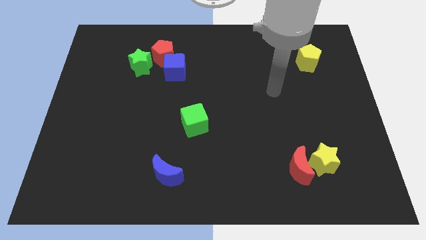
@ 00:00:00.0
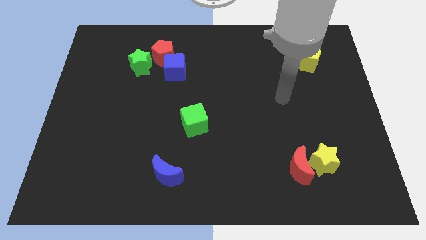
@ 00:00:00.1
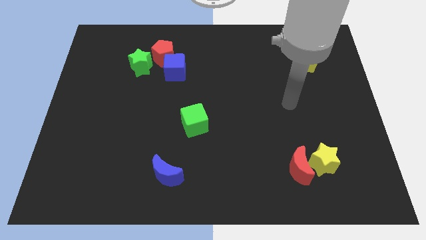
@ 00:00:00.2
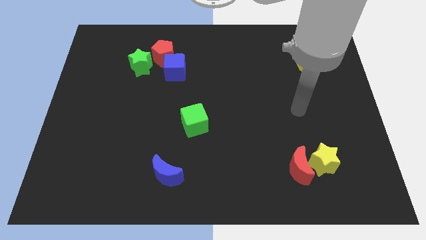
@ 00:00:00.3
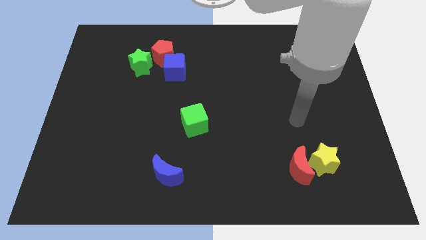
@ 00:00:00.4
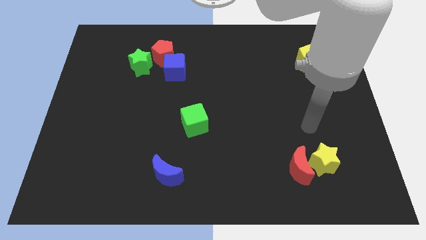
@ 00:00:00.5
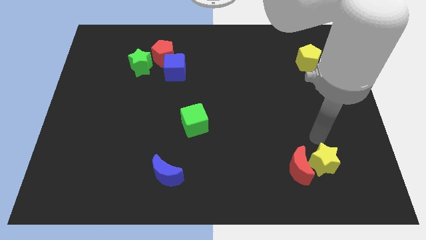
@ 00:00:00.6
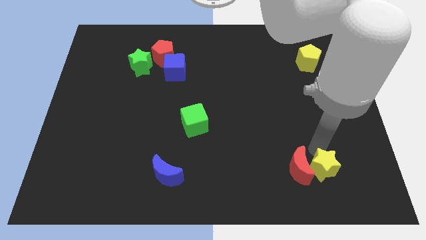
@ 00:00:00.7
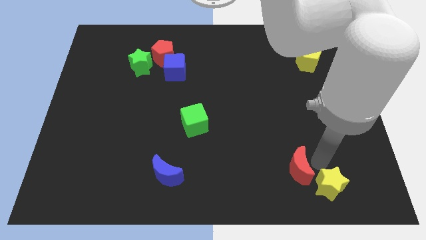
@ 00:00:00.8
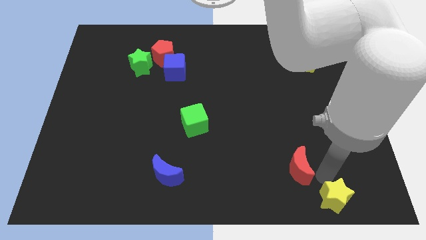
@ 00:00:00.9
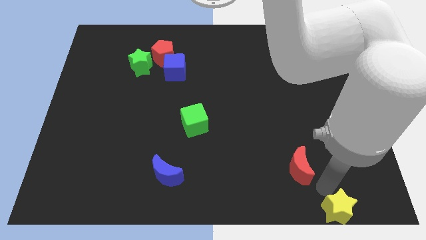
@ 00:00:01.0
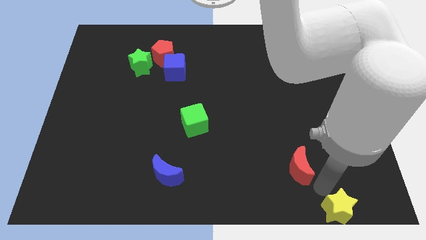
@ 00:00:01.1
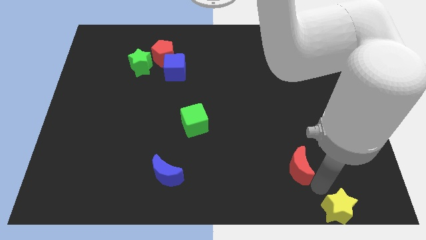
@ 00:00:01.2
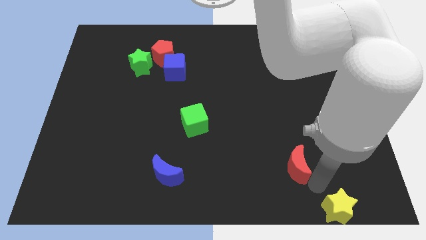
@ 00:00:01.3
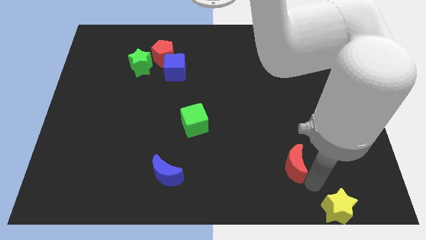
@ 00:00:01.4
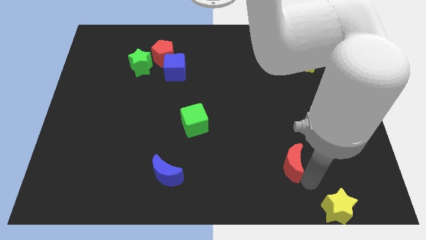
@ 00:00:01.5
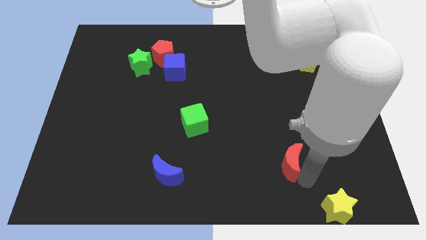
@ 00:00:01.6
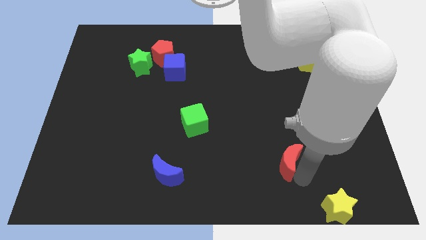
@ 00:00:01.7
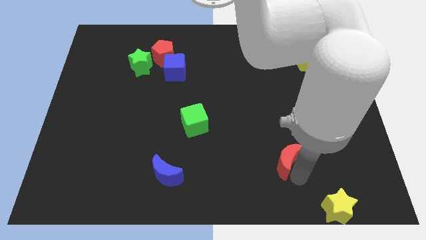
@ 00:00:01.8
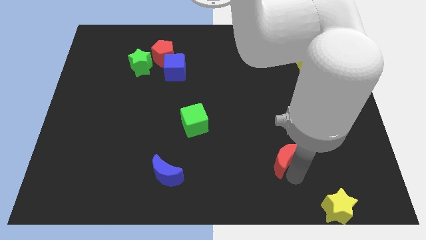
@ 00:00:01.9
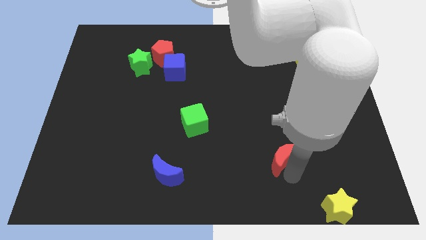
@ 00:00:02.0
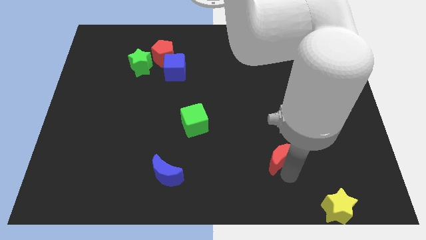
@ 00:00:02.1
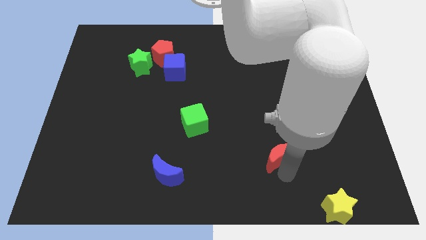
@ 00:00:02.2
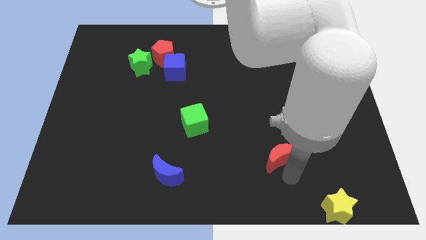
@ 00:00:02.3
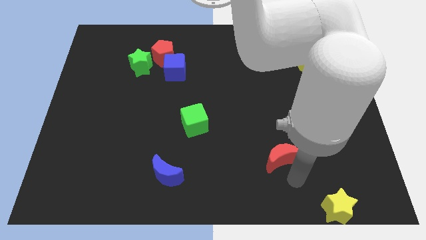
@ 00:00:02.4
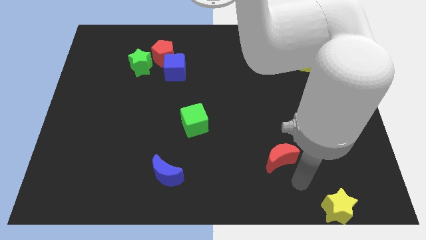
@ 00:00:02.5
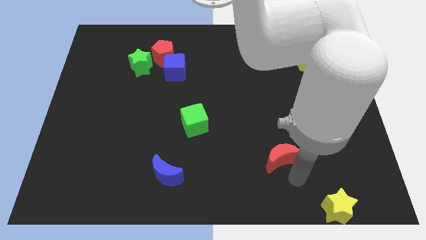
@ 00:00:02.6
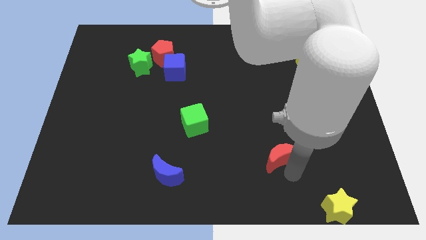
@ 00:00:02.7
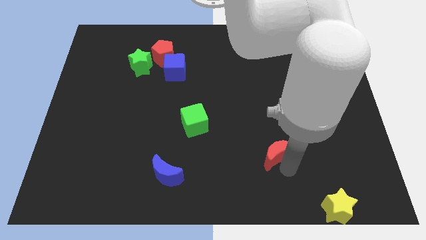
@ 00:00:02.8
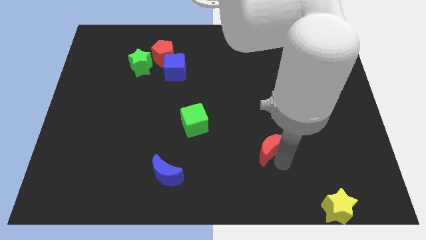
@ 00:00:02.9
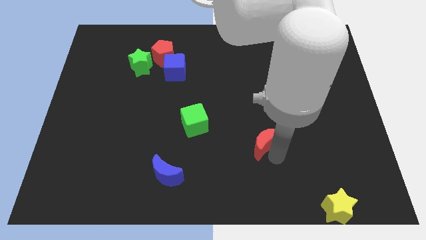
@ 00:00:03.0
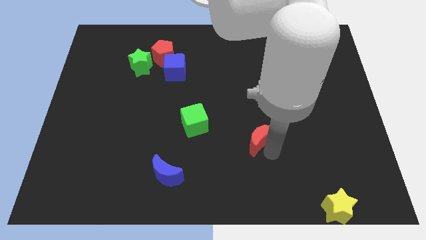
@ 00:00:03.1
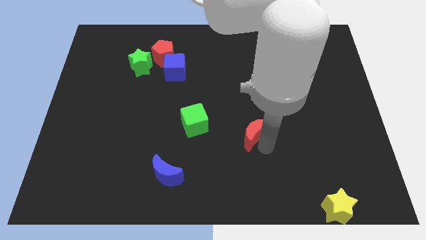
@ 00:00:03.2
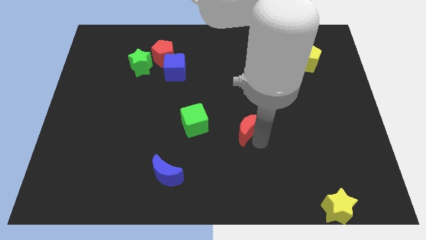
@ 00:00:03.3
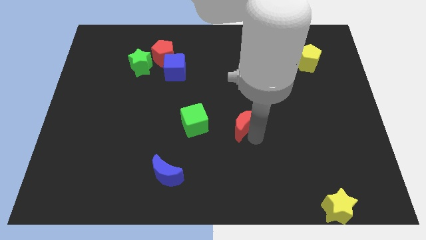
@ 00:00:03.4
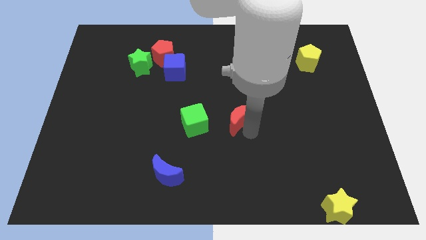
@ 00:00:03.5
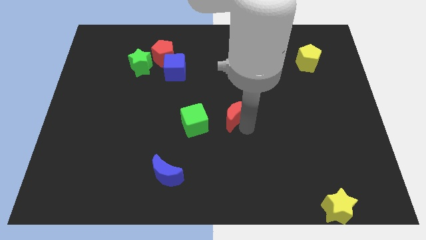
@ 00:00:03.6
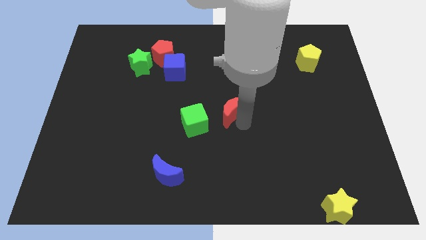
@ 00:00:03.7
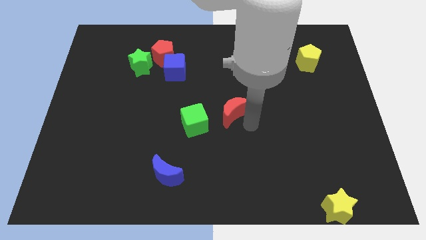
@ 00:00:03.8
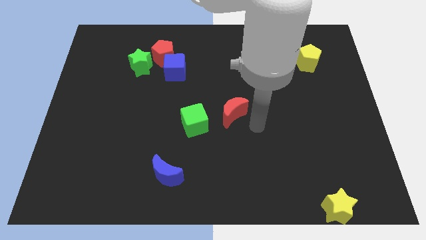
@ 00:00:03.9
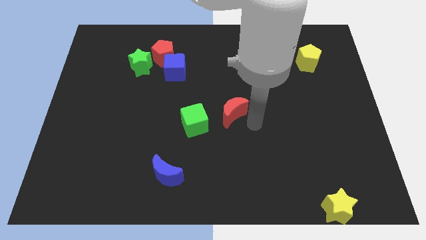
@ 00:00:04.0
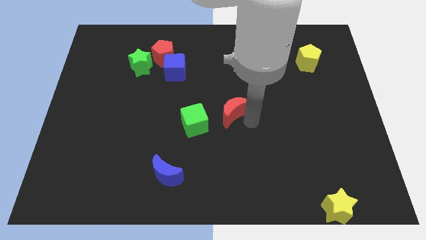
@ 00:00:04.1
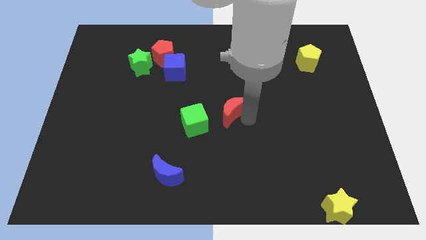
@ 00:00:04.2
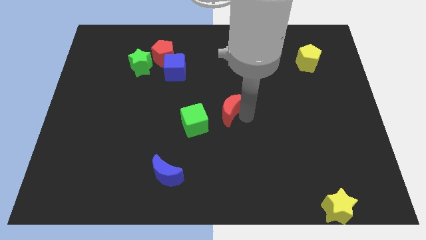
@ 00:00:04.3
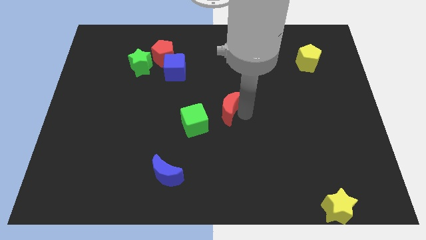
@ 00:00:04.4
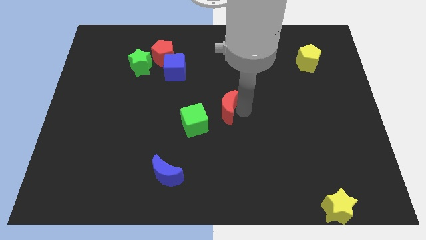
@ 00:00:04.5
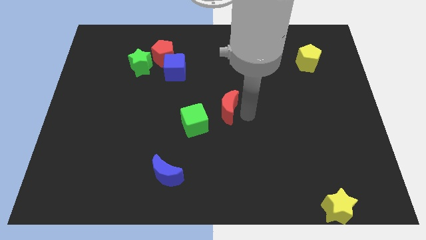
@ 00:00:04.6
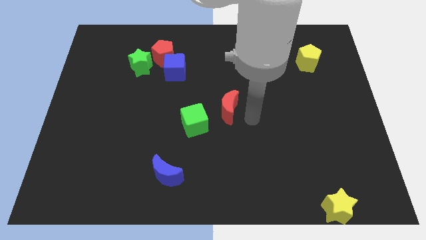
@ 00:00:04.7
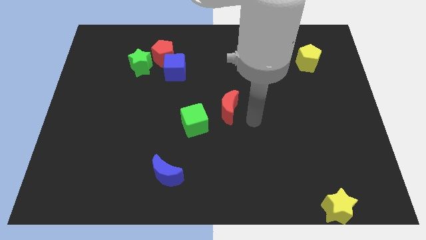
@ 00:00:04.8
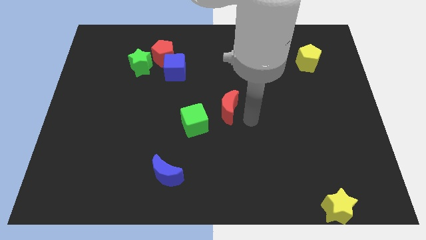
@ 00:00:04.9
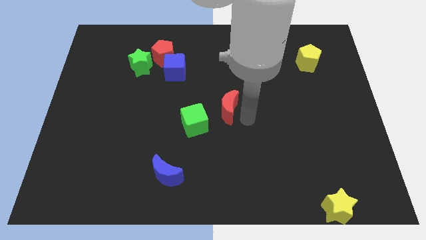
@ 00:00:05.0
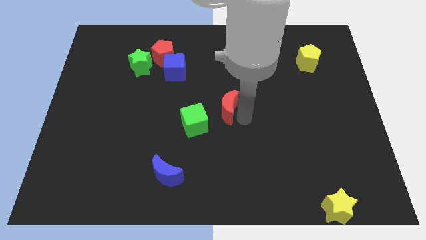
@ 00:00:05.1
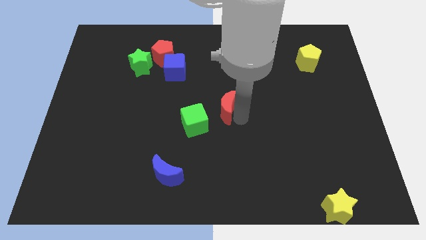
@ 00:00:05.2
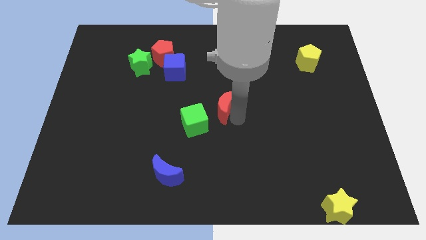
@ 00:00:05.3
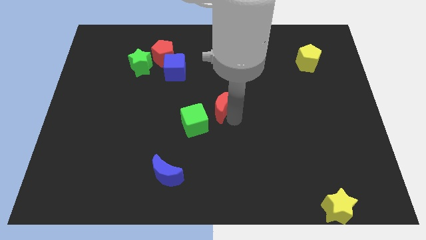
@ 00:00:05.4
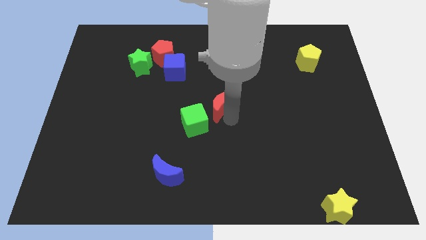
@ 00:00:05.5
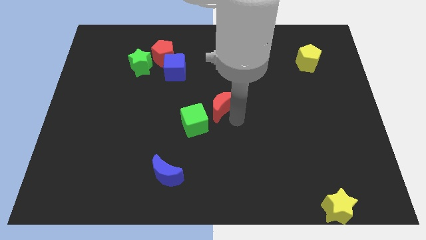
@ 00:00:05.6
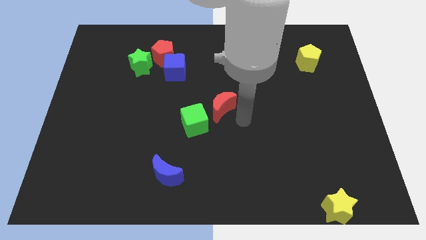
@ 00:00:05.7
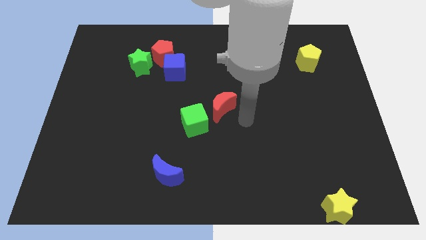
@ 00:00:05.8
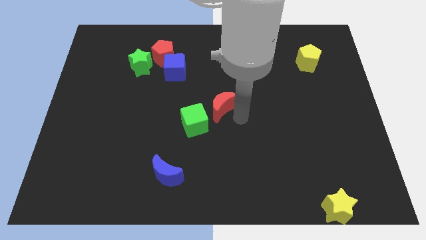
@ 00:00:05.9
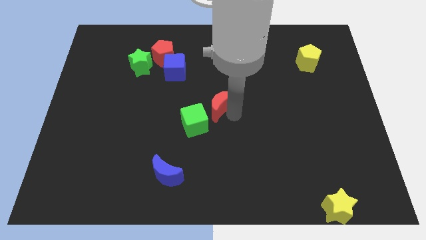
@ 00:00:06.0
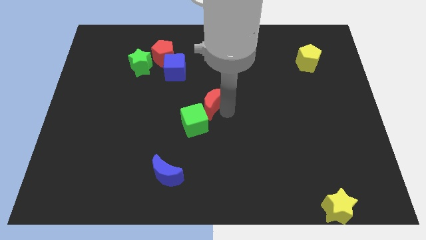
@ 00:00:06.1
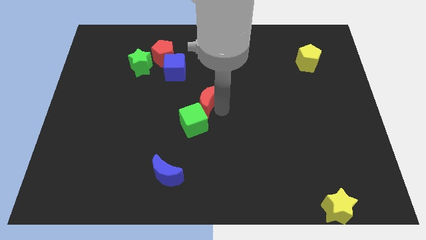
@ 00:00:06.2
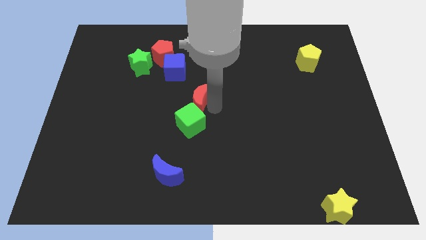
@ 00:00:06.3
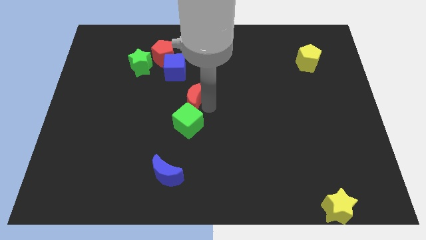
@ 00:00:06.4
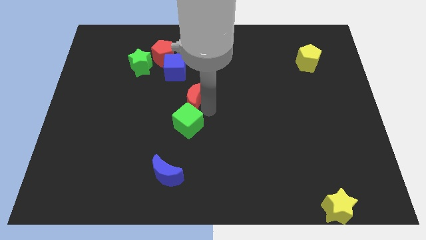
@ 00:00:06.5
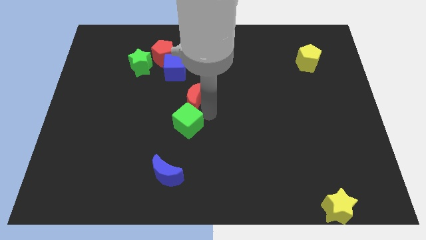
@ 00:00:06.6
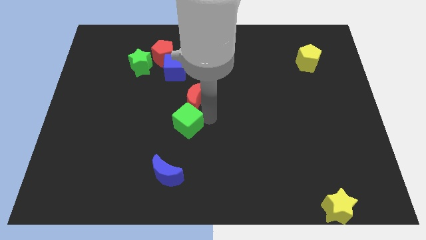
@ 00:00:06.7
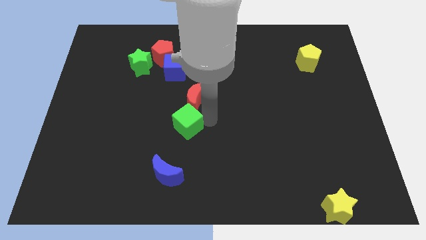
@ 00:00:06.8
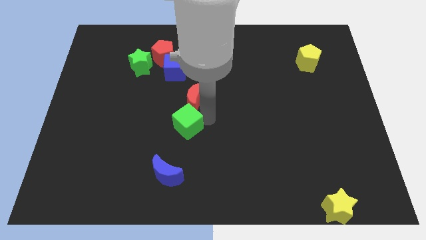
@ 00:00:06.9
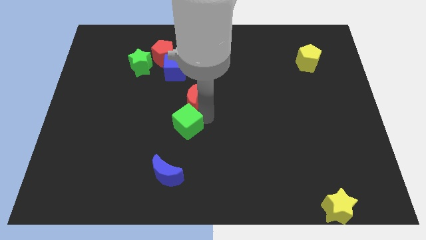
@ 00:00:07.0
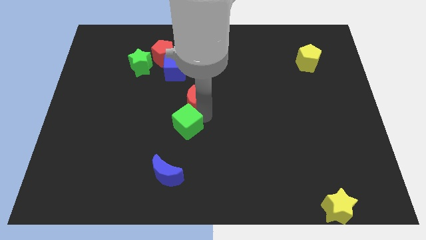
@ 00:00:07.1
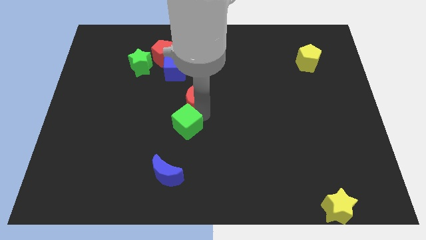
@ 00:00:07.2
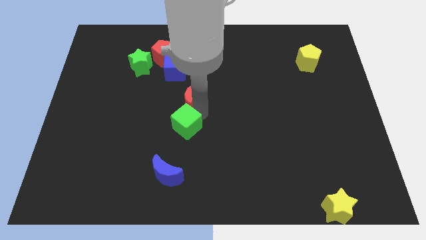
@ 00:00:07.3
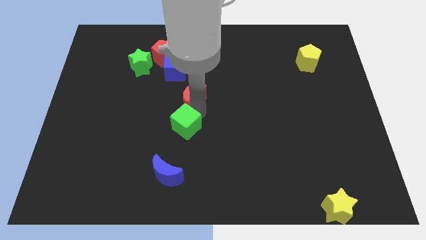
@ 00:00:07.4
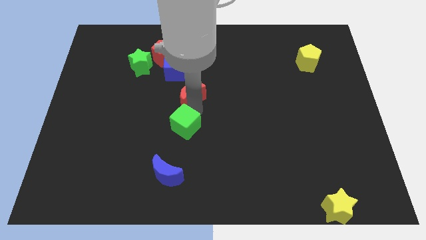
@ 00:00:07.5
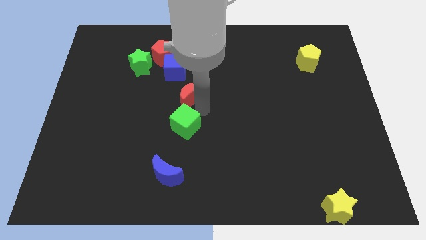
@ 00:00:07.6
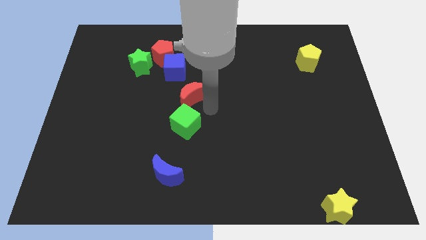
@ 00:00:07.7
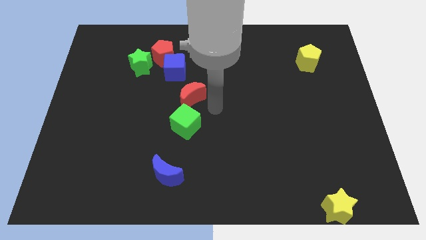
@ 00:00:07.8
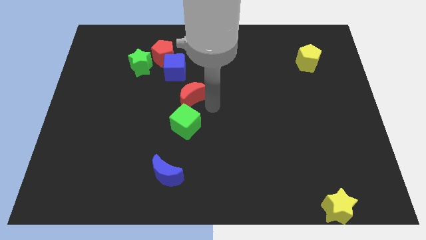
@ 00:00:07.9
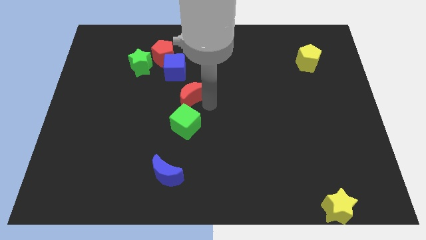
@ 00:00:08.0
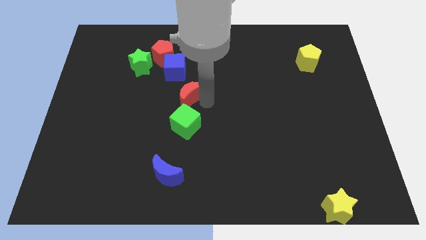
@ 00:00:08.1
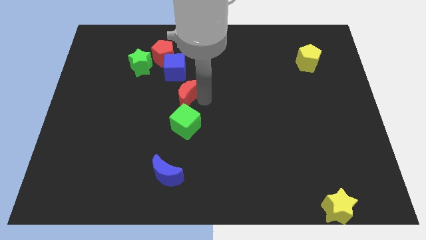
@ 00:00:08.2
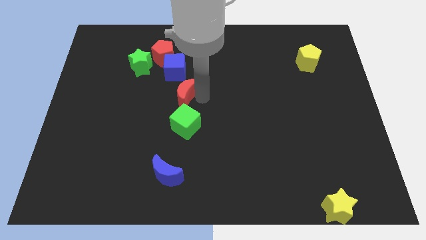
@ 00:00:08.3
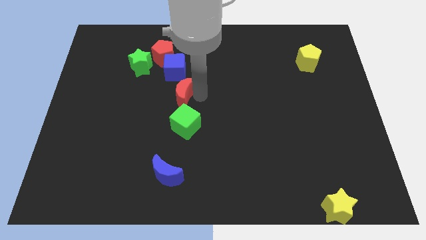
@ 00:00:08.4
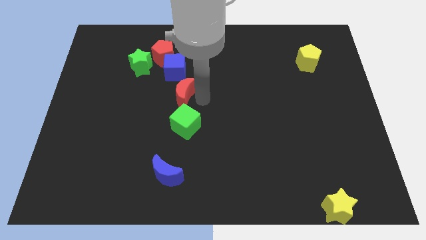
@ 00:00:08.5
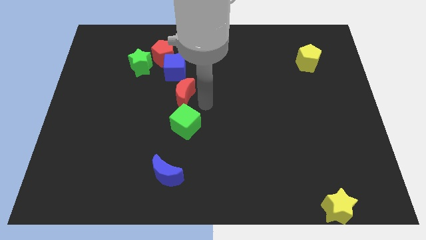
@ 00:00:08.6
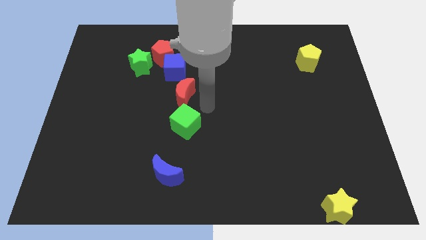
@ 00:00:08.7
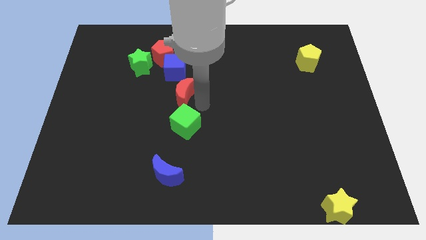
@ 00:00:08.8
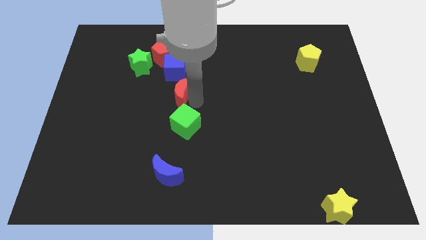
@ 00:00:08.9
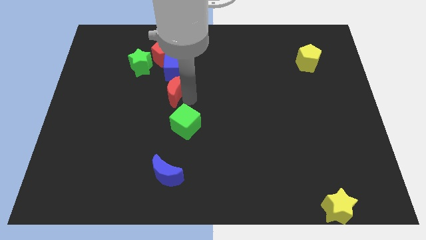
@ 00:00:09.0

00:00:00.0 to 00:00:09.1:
slide the red moon to the bottom side of the red pentagon
